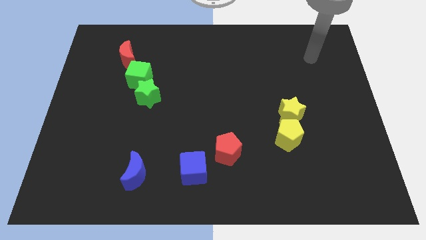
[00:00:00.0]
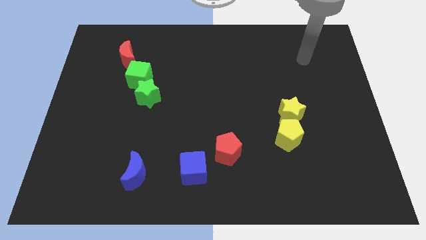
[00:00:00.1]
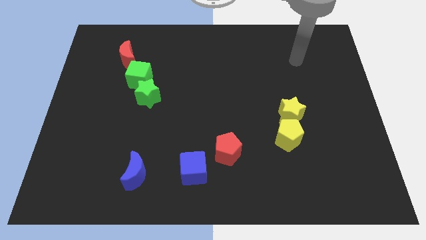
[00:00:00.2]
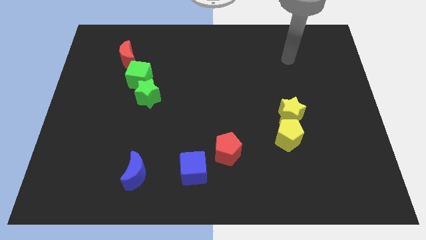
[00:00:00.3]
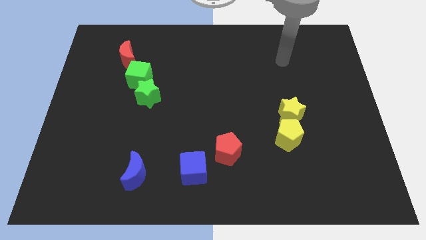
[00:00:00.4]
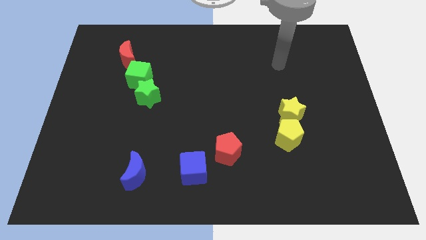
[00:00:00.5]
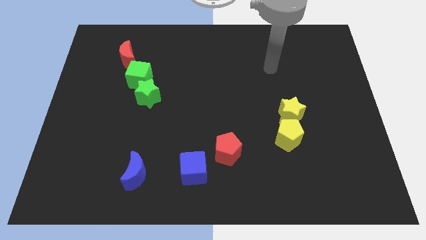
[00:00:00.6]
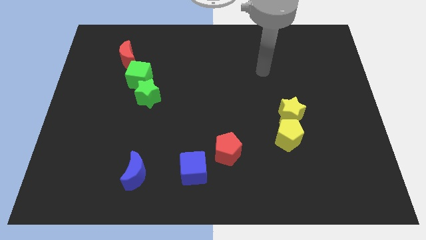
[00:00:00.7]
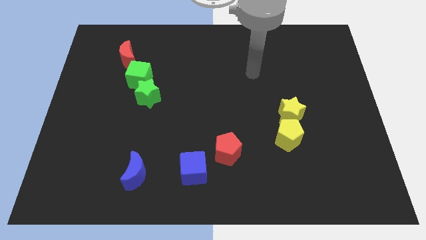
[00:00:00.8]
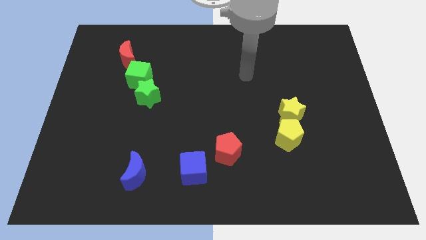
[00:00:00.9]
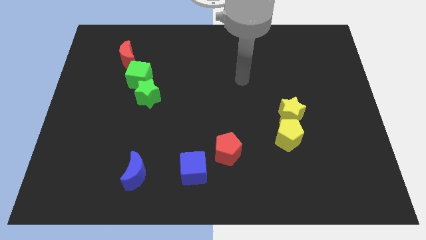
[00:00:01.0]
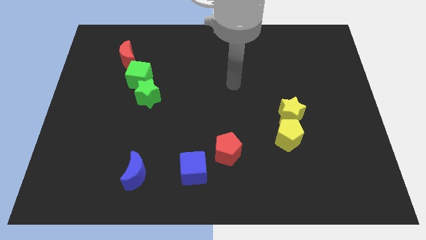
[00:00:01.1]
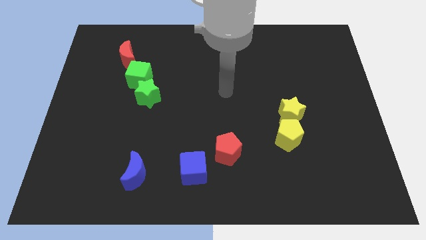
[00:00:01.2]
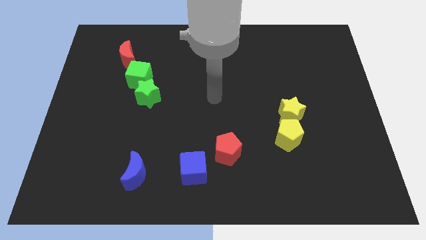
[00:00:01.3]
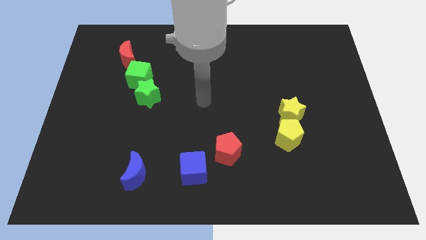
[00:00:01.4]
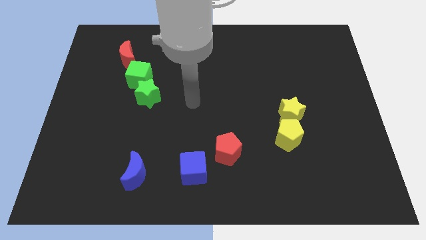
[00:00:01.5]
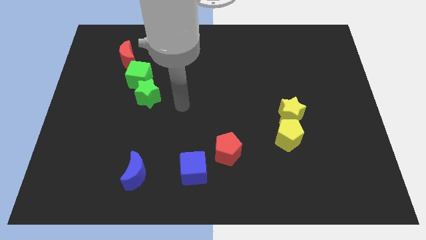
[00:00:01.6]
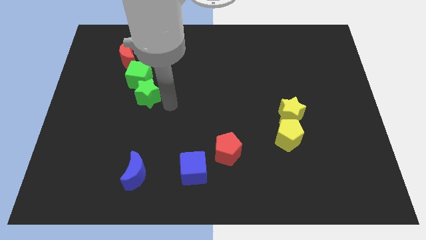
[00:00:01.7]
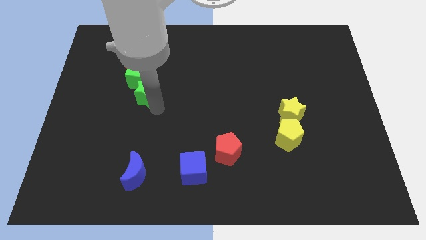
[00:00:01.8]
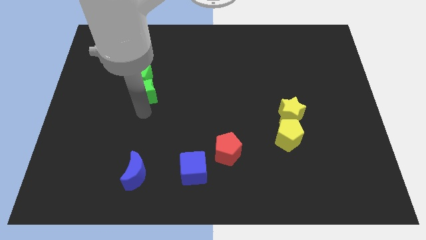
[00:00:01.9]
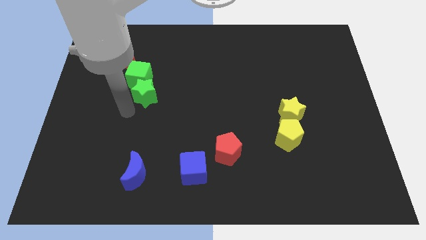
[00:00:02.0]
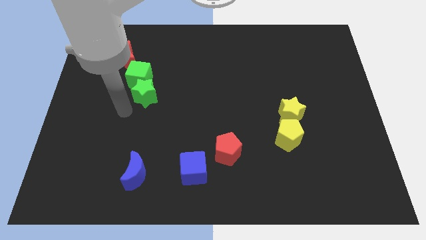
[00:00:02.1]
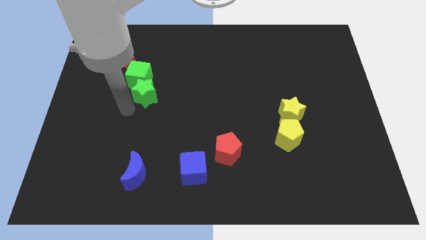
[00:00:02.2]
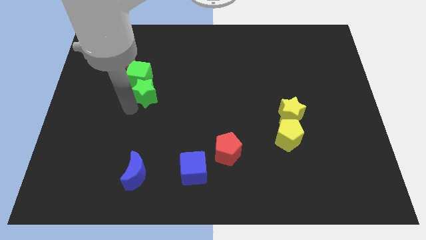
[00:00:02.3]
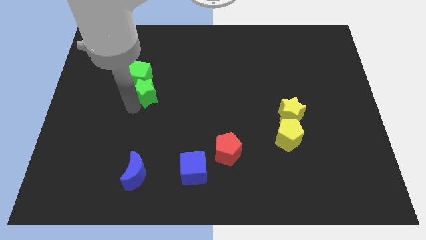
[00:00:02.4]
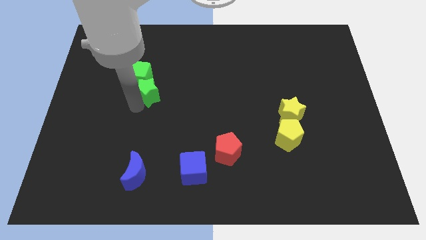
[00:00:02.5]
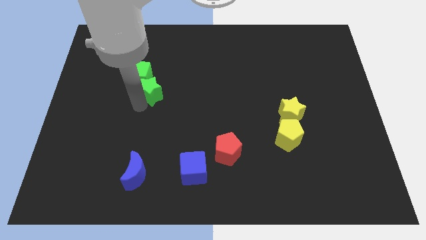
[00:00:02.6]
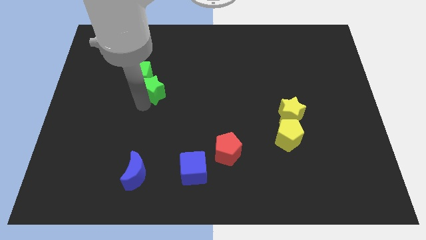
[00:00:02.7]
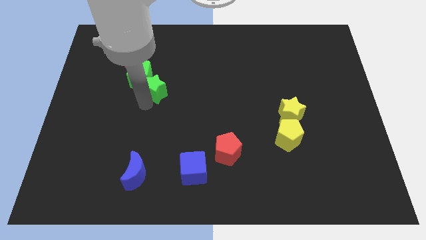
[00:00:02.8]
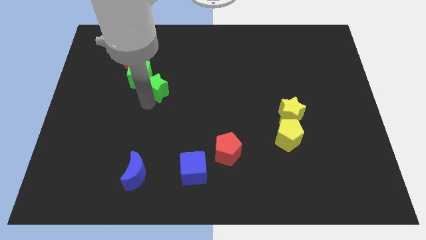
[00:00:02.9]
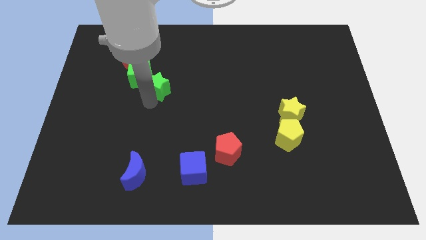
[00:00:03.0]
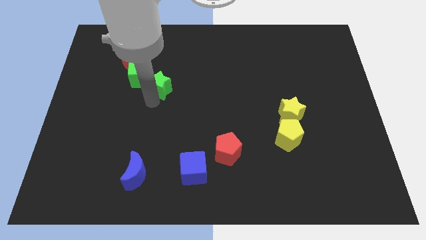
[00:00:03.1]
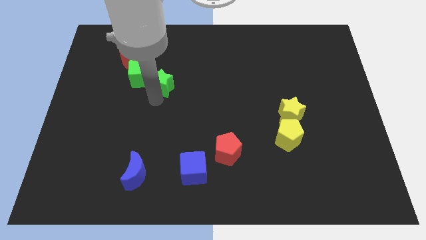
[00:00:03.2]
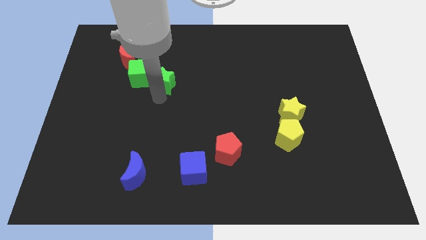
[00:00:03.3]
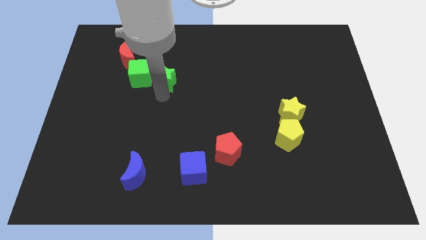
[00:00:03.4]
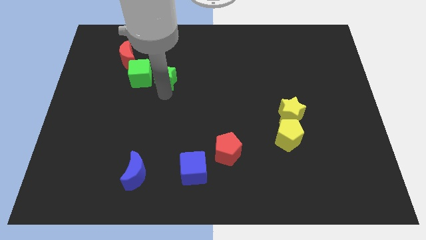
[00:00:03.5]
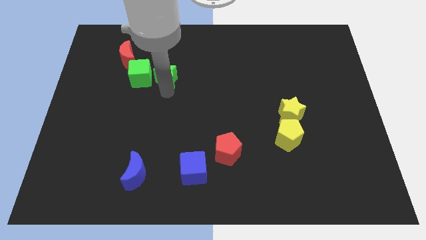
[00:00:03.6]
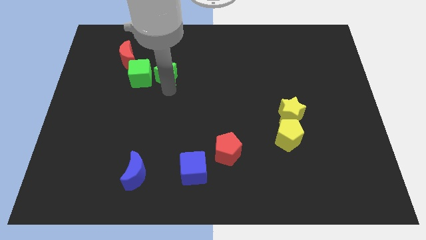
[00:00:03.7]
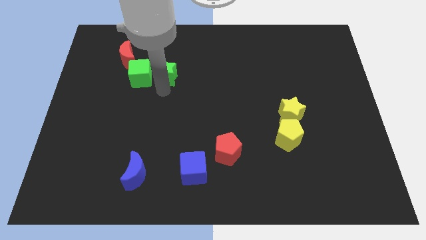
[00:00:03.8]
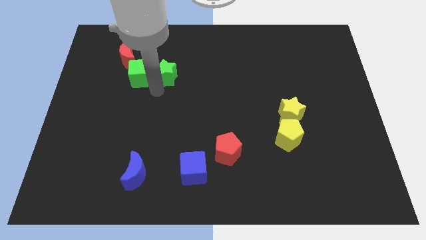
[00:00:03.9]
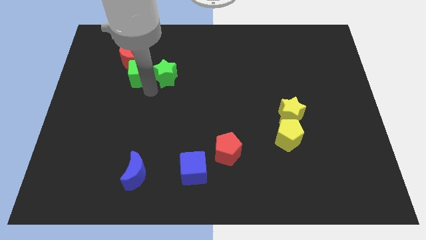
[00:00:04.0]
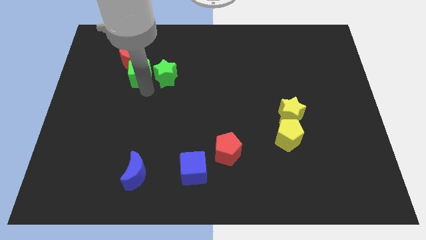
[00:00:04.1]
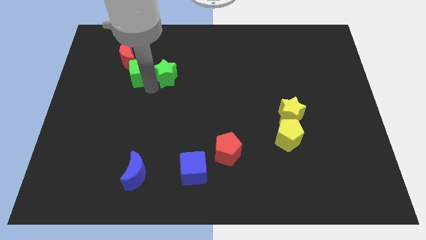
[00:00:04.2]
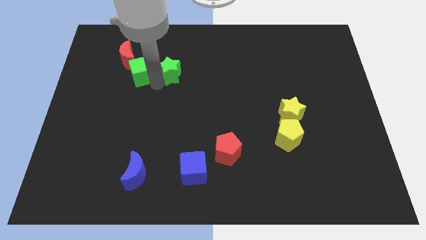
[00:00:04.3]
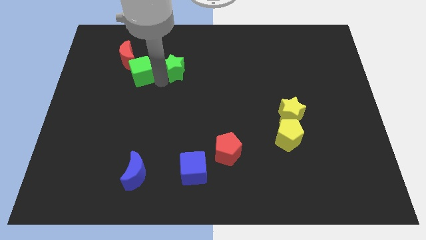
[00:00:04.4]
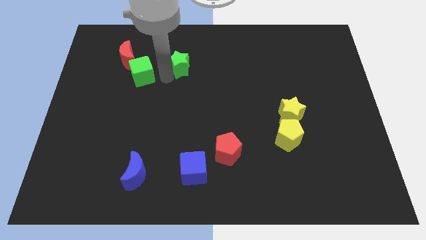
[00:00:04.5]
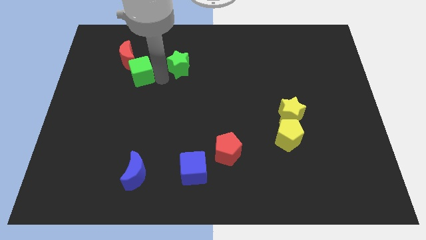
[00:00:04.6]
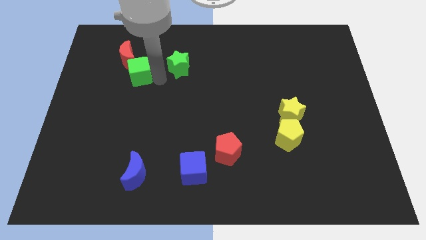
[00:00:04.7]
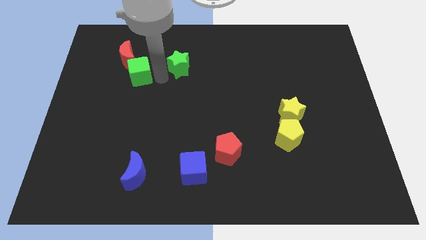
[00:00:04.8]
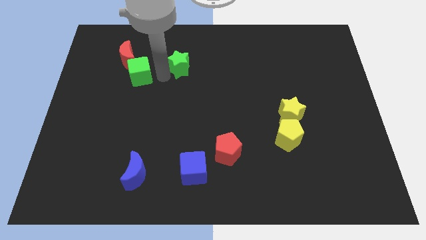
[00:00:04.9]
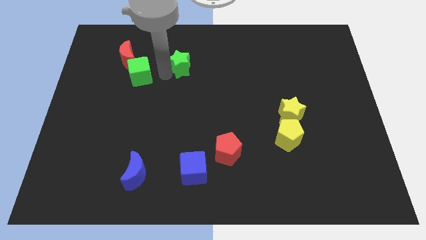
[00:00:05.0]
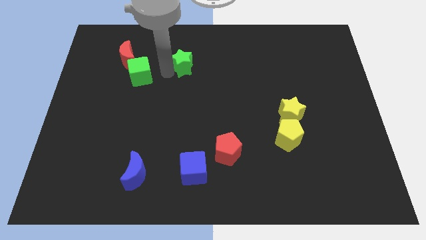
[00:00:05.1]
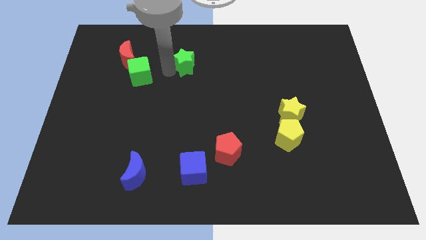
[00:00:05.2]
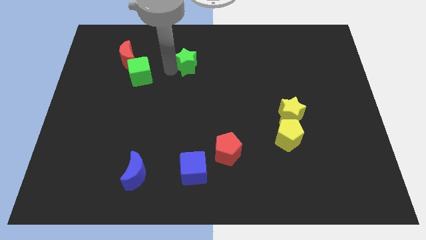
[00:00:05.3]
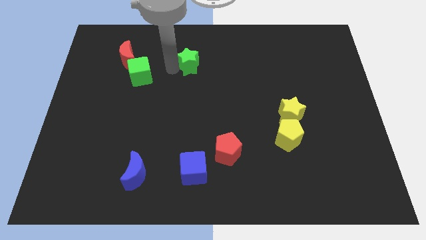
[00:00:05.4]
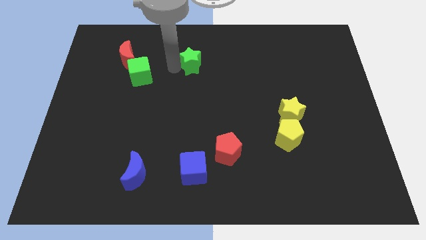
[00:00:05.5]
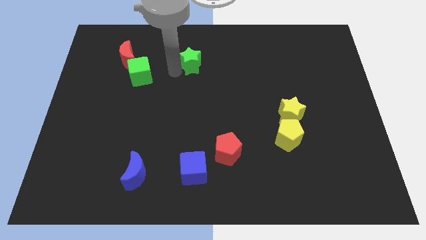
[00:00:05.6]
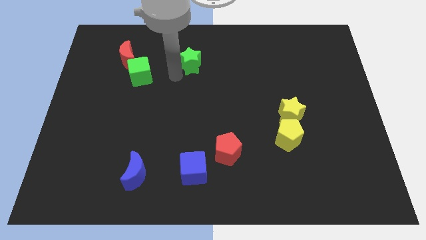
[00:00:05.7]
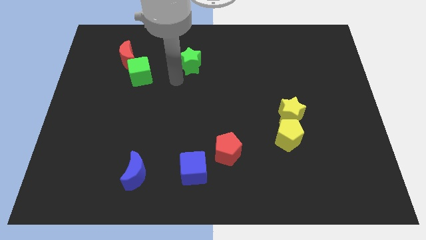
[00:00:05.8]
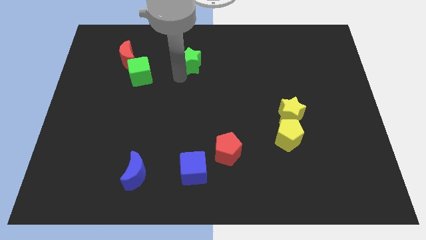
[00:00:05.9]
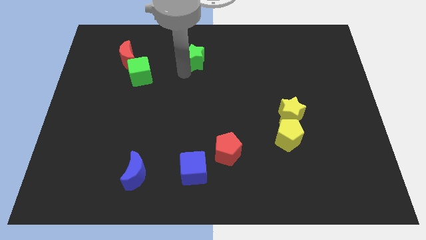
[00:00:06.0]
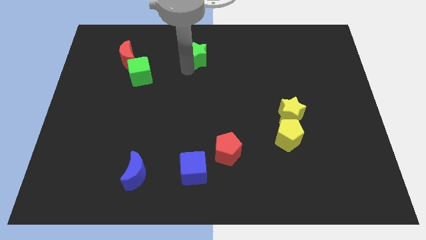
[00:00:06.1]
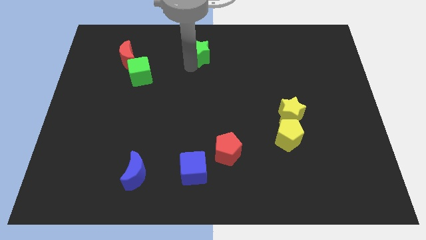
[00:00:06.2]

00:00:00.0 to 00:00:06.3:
push the green star to the towards your base
